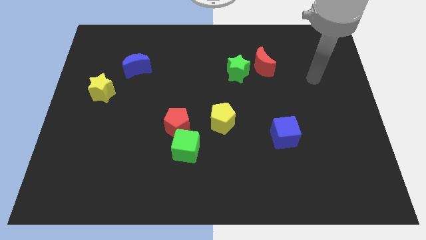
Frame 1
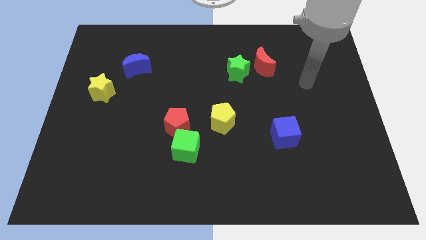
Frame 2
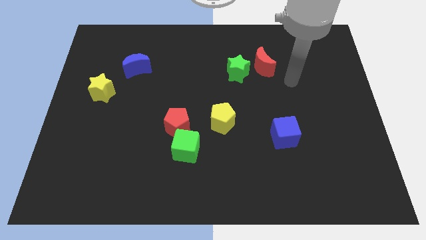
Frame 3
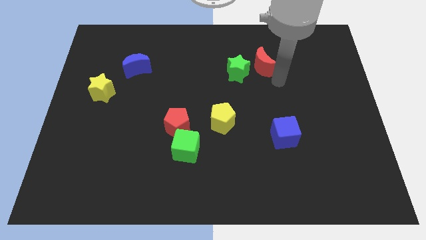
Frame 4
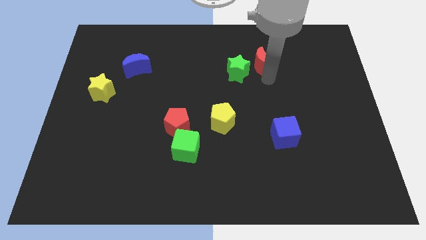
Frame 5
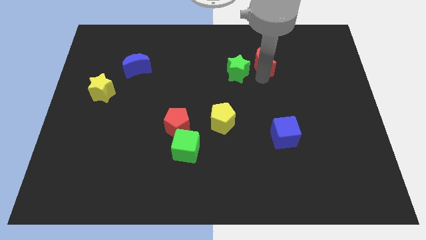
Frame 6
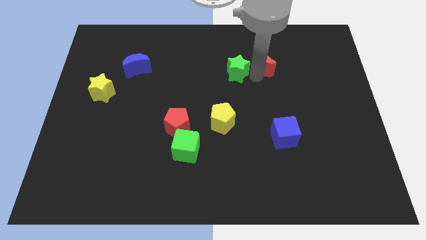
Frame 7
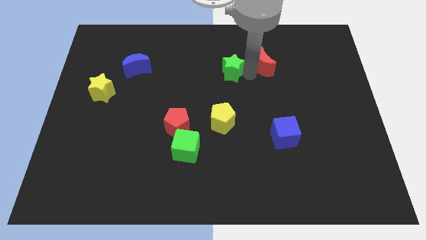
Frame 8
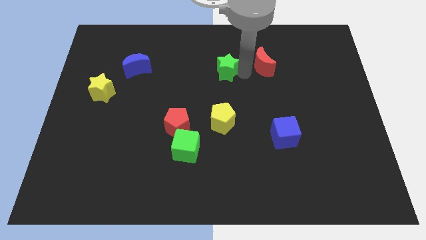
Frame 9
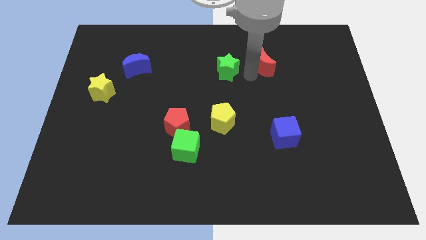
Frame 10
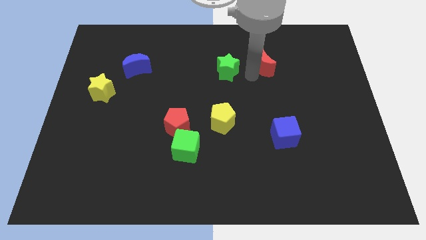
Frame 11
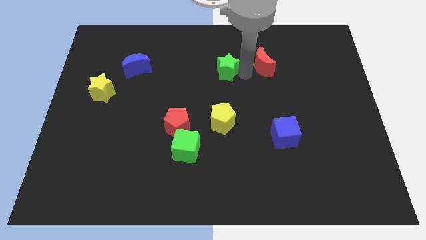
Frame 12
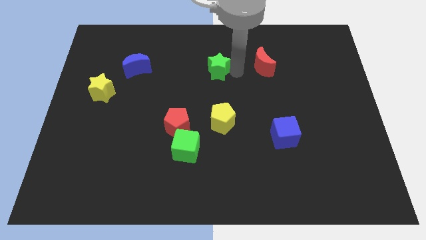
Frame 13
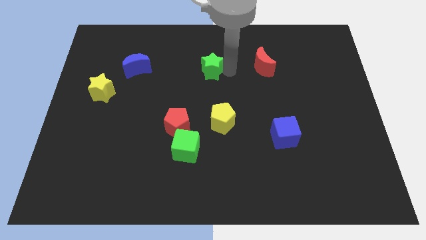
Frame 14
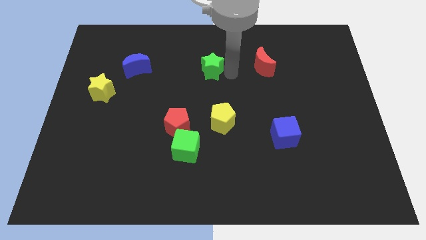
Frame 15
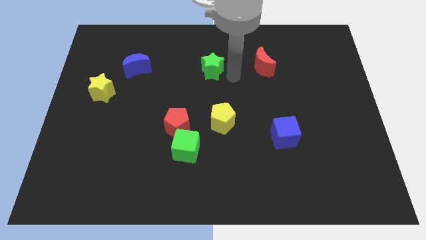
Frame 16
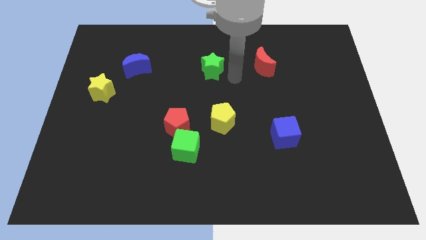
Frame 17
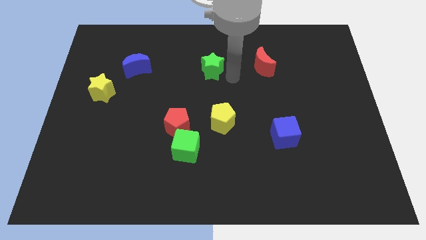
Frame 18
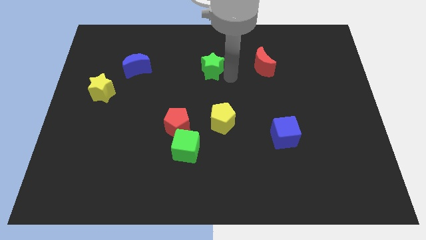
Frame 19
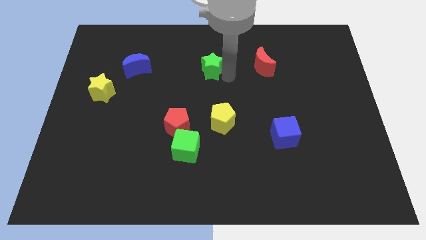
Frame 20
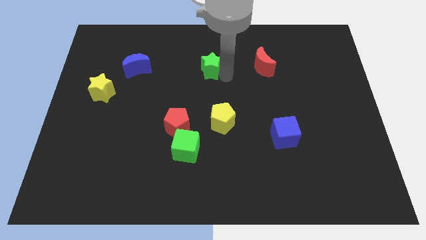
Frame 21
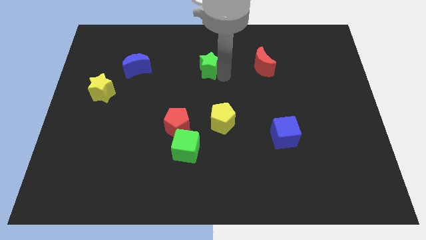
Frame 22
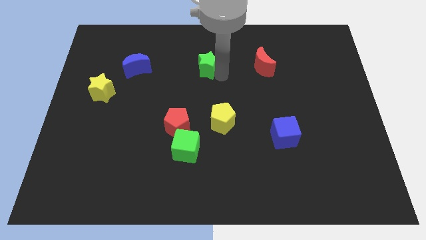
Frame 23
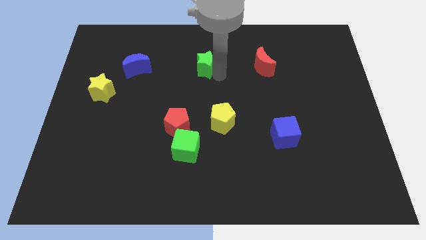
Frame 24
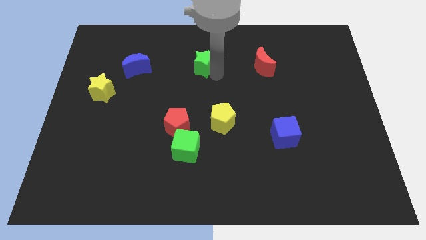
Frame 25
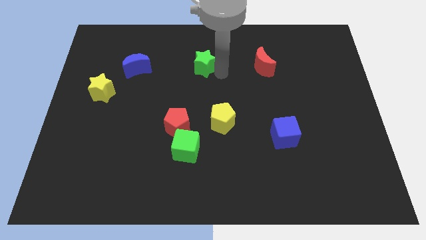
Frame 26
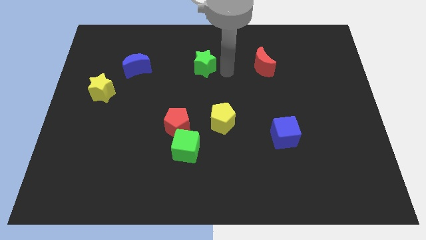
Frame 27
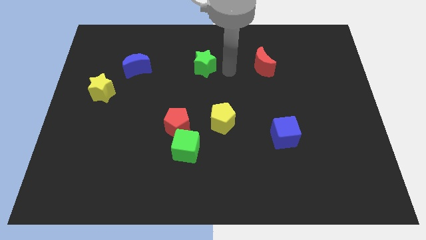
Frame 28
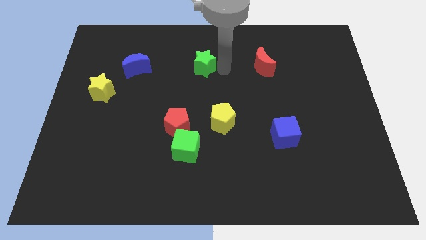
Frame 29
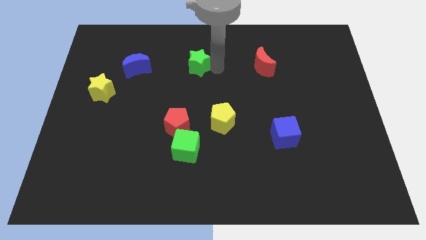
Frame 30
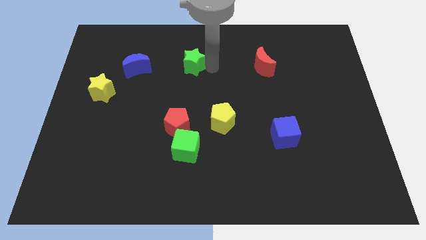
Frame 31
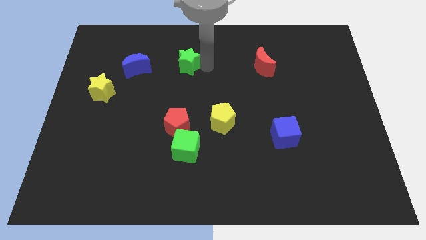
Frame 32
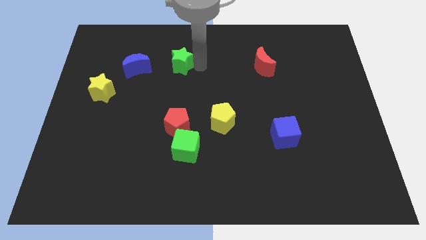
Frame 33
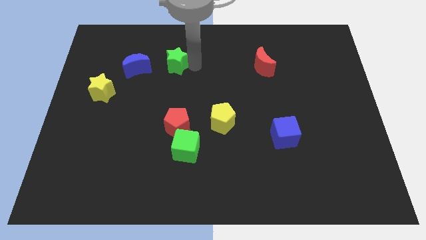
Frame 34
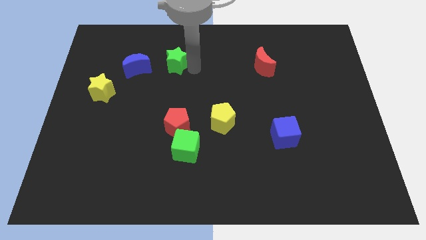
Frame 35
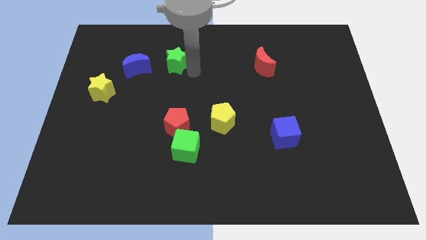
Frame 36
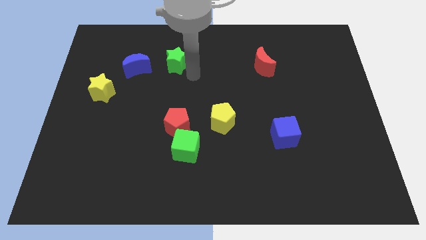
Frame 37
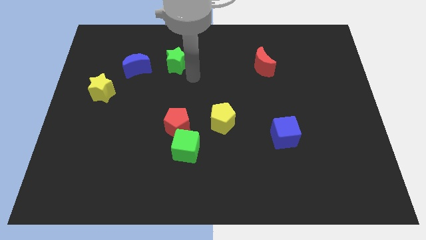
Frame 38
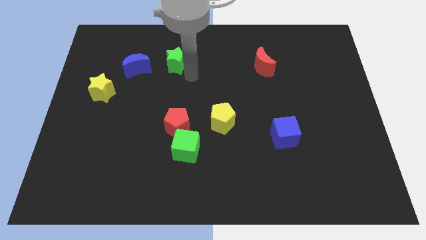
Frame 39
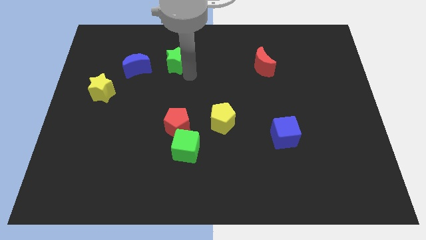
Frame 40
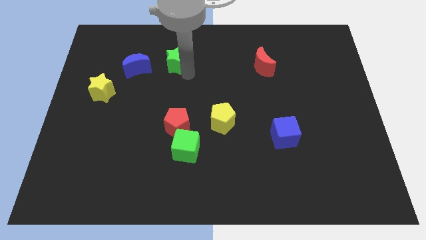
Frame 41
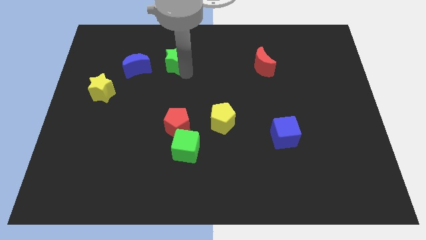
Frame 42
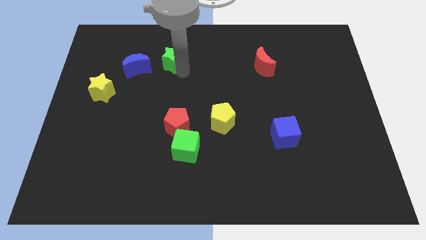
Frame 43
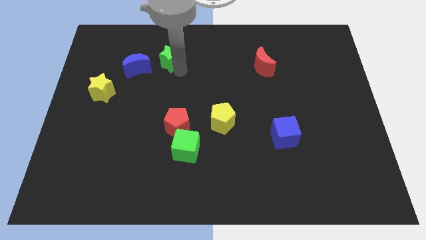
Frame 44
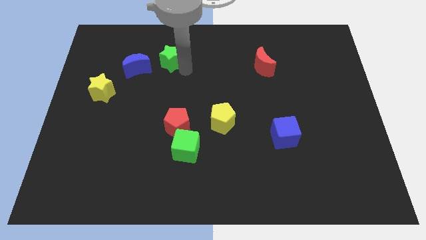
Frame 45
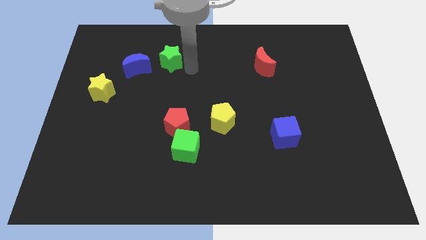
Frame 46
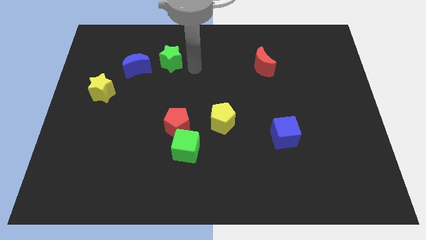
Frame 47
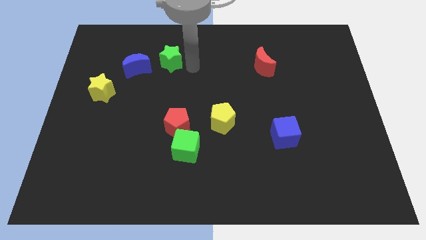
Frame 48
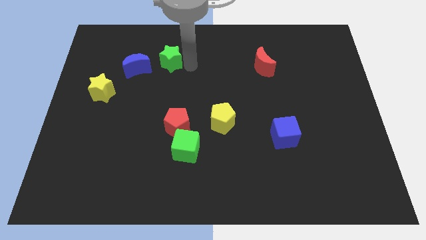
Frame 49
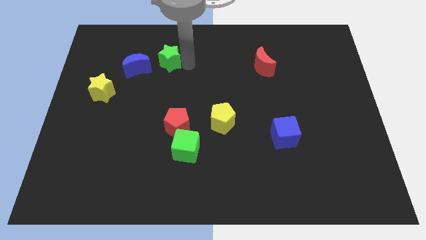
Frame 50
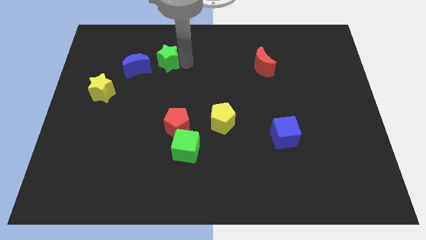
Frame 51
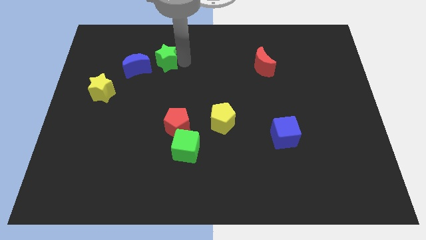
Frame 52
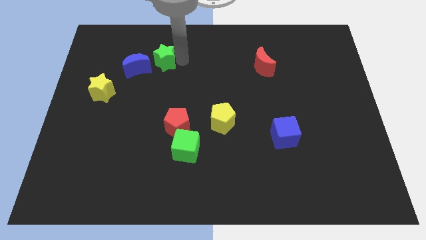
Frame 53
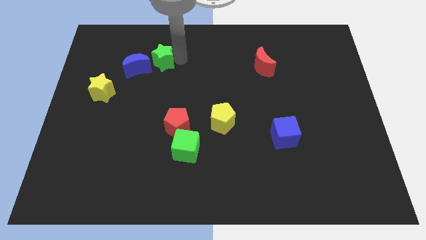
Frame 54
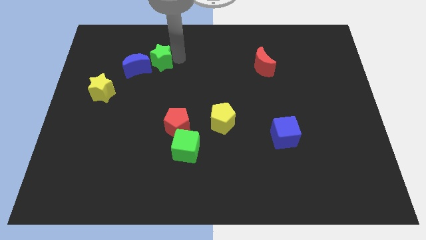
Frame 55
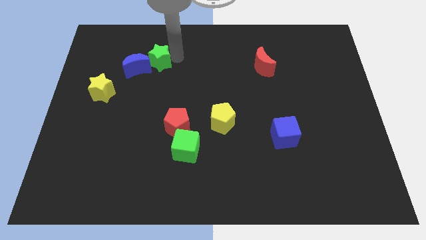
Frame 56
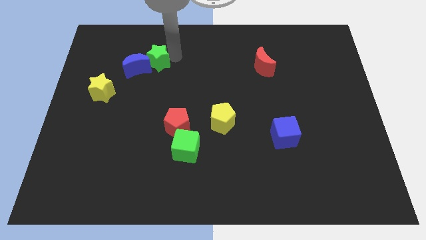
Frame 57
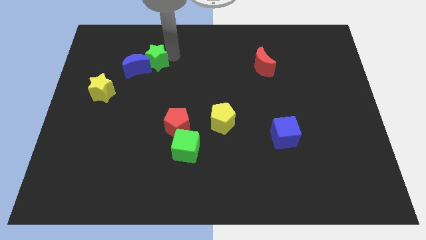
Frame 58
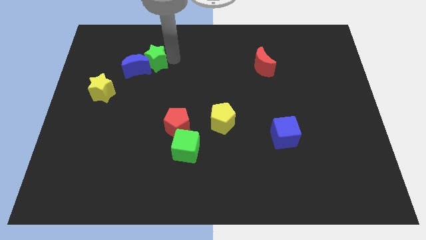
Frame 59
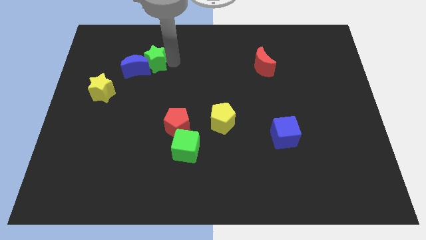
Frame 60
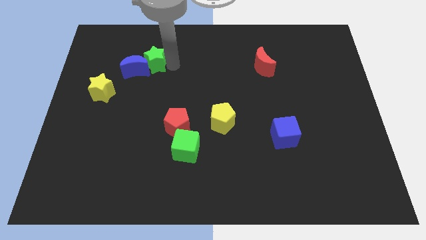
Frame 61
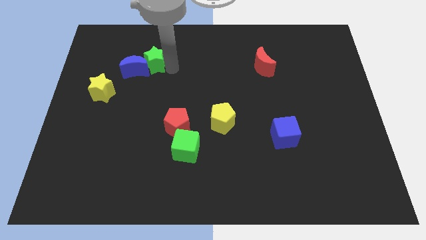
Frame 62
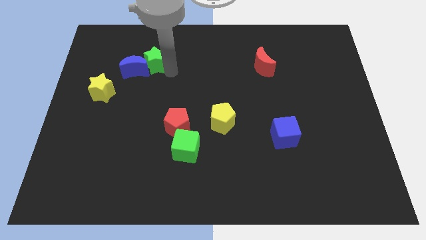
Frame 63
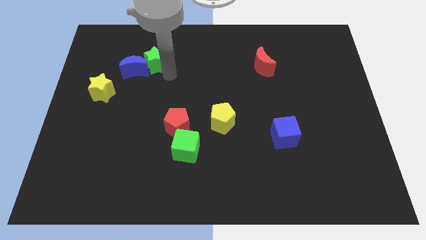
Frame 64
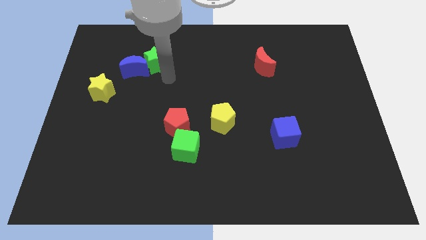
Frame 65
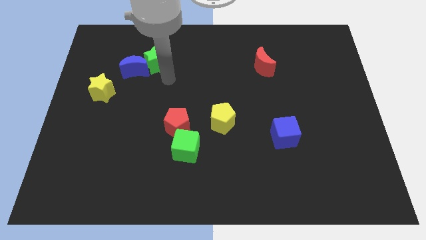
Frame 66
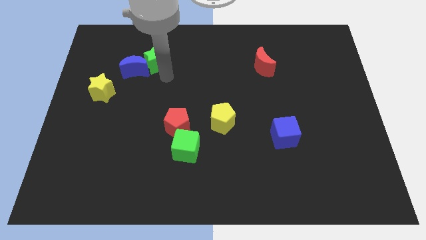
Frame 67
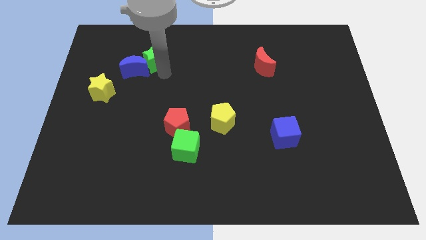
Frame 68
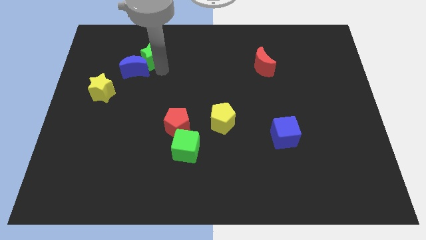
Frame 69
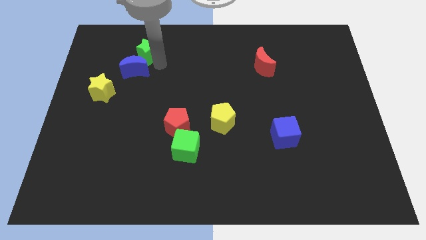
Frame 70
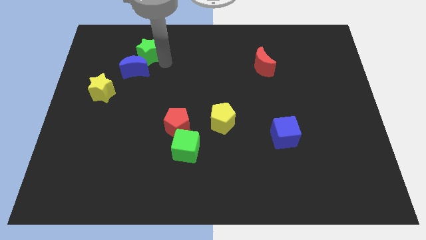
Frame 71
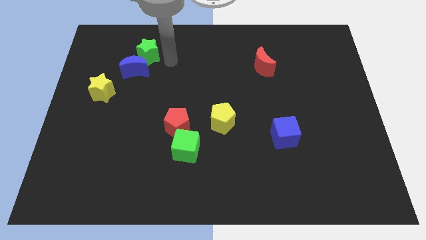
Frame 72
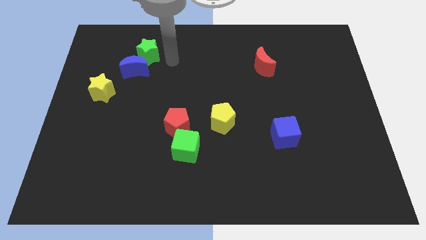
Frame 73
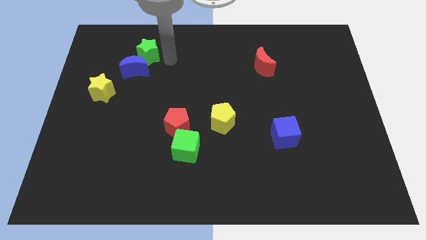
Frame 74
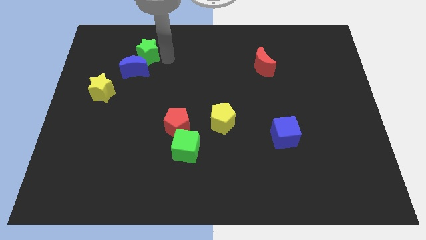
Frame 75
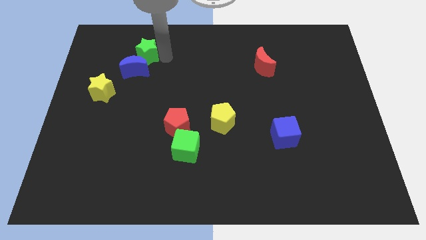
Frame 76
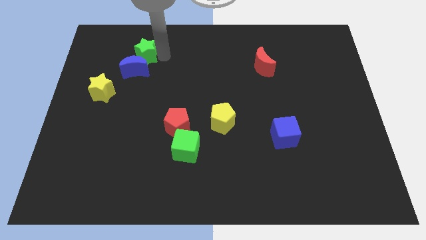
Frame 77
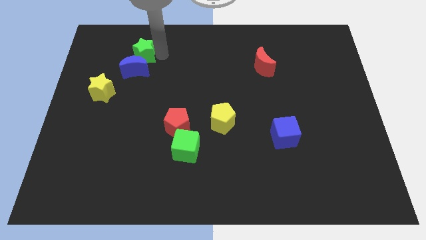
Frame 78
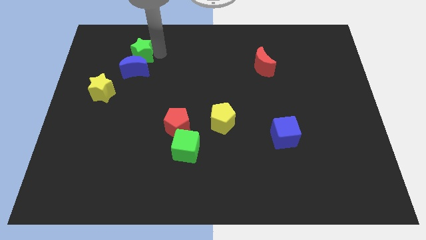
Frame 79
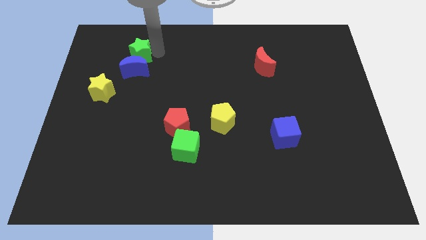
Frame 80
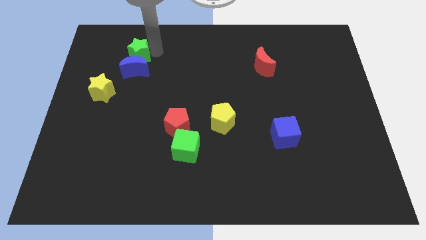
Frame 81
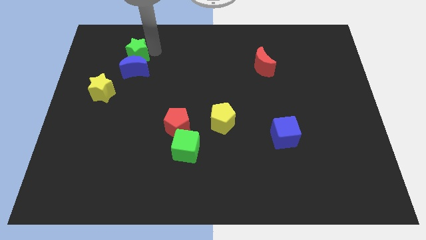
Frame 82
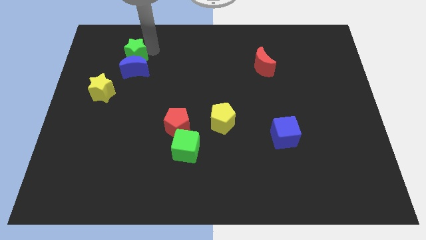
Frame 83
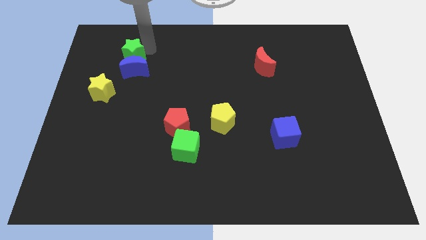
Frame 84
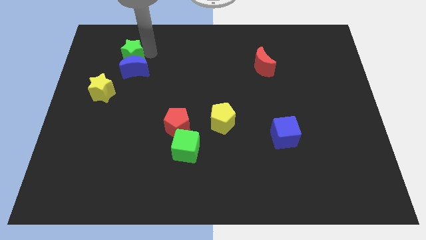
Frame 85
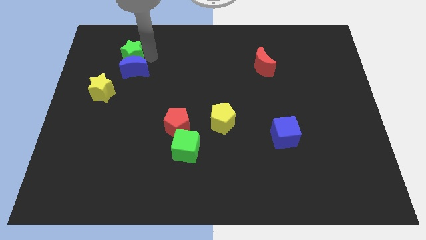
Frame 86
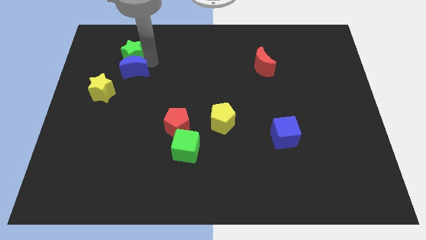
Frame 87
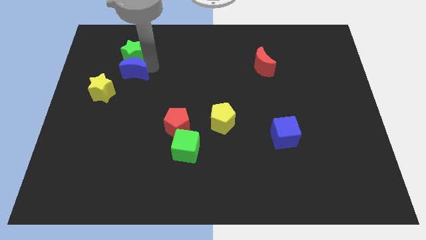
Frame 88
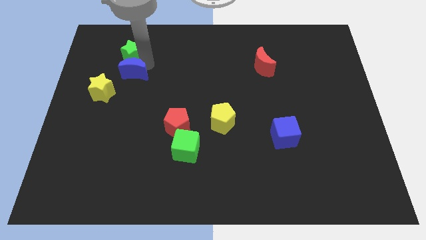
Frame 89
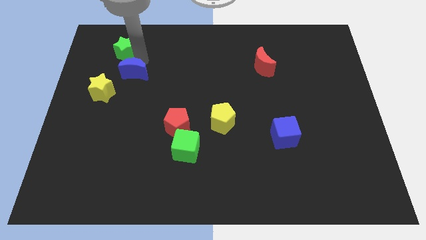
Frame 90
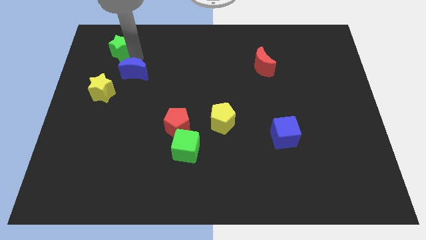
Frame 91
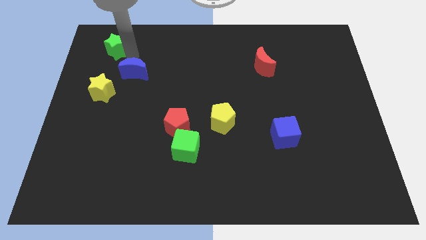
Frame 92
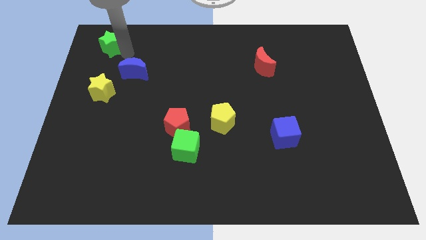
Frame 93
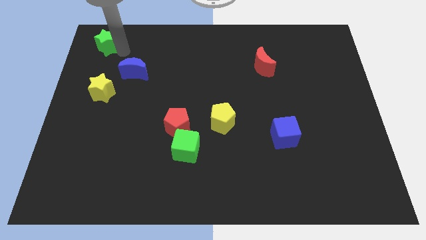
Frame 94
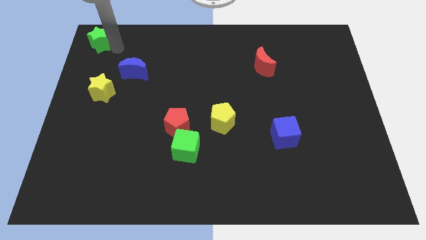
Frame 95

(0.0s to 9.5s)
slide the green star to the top left
